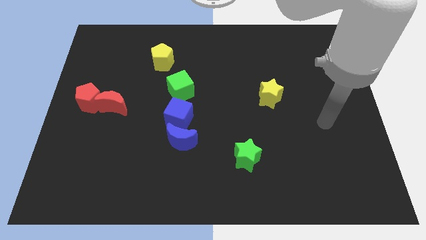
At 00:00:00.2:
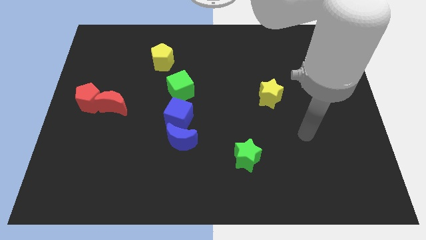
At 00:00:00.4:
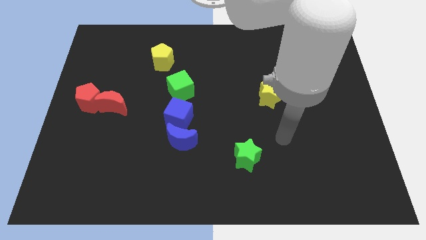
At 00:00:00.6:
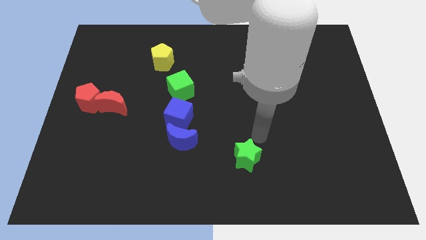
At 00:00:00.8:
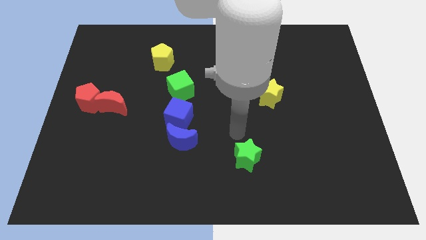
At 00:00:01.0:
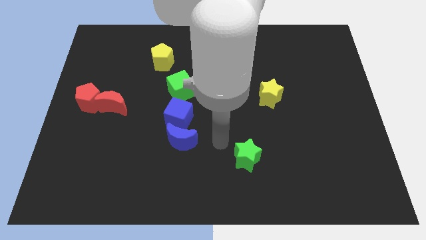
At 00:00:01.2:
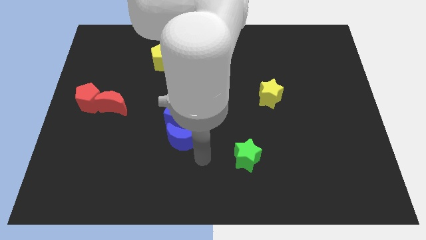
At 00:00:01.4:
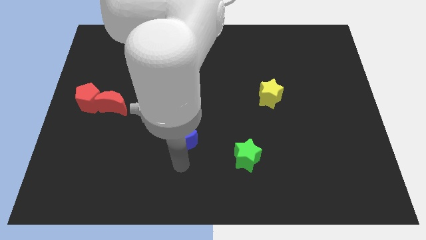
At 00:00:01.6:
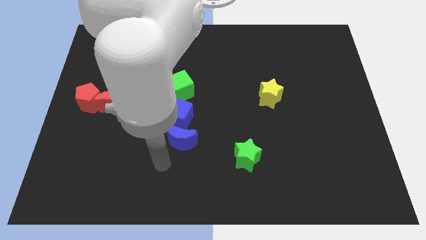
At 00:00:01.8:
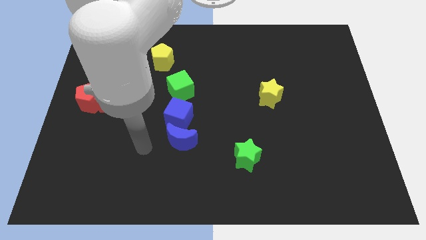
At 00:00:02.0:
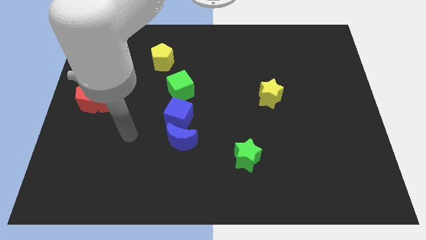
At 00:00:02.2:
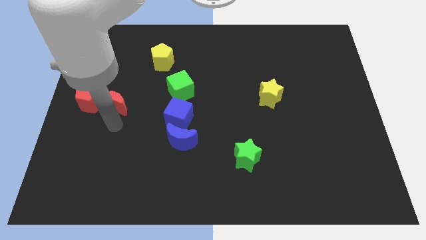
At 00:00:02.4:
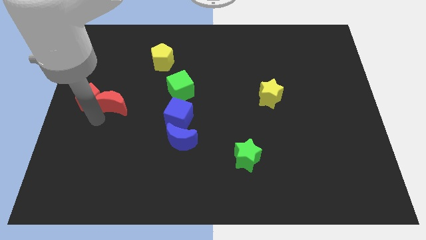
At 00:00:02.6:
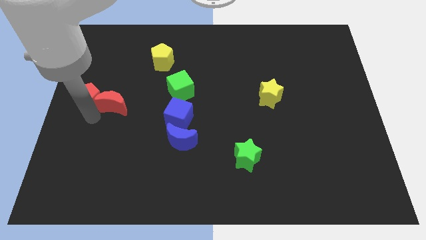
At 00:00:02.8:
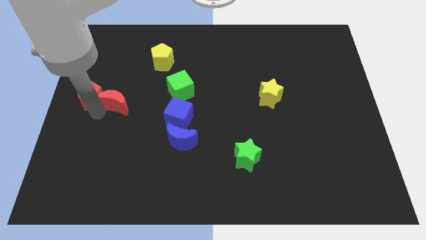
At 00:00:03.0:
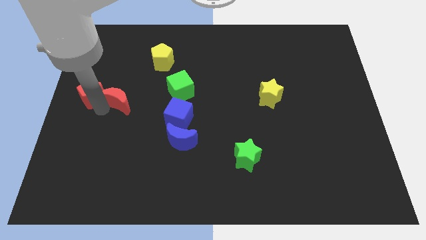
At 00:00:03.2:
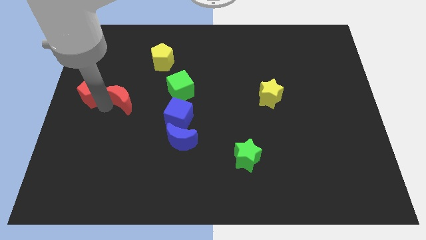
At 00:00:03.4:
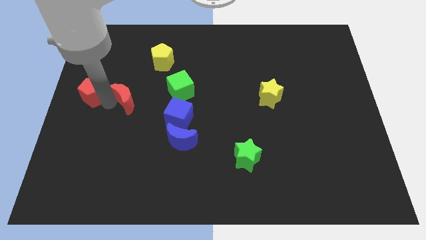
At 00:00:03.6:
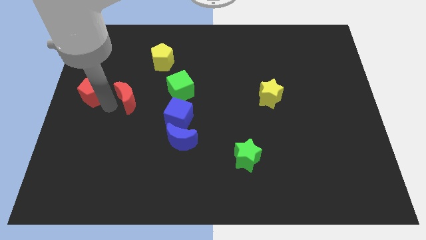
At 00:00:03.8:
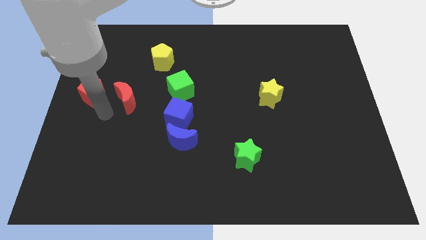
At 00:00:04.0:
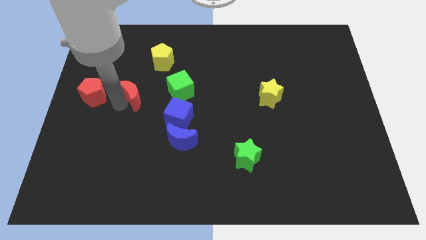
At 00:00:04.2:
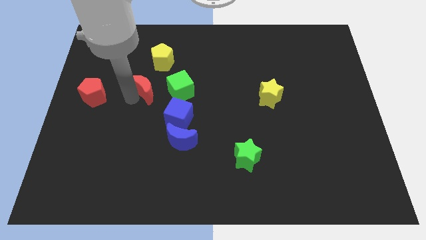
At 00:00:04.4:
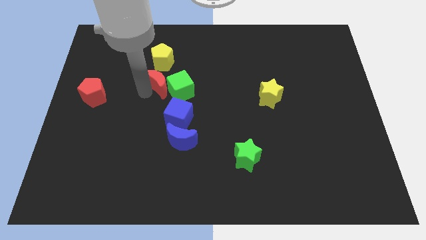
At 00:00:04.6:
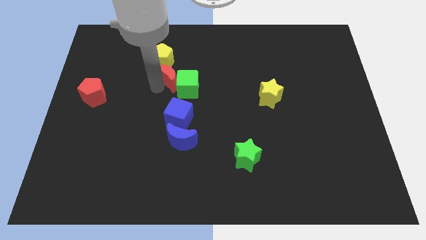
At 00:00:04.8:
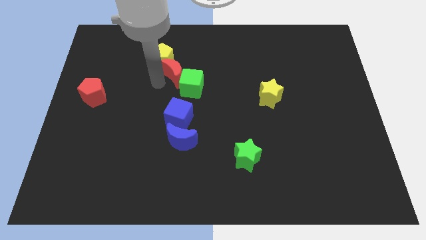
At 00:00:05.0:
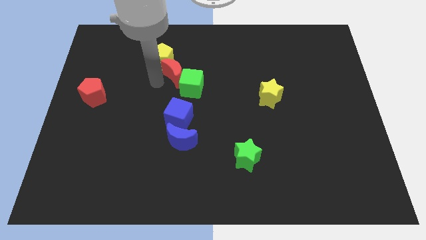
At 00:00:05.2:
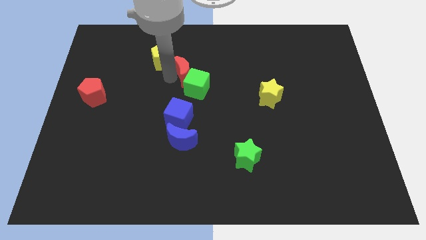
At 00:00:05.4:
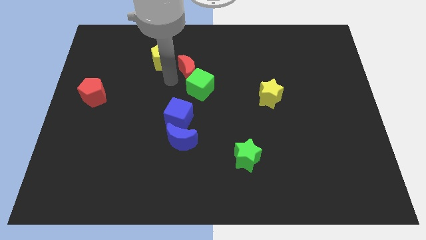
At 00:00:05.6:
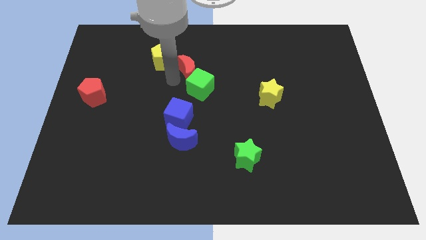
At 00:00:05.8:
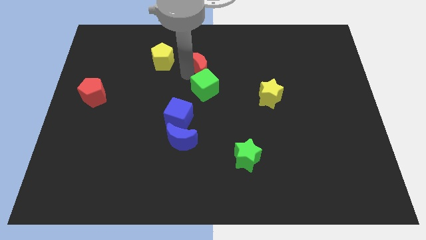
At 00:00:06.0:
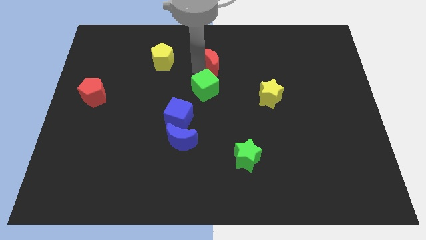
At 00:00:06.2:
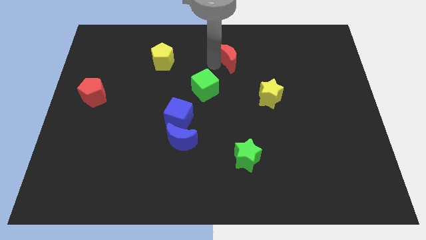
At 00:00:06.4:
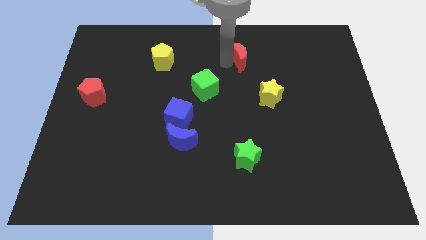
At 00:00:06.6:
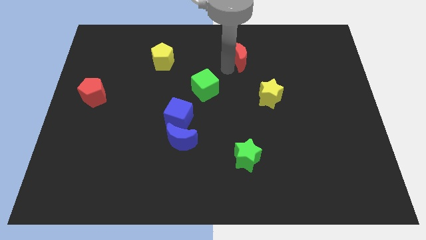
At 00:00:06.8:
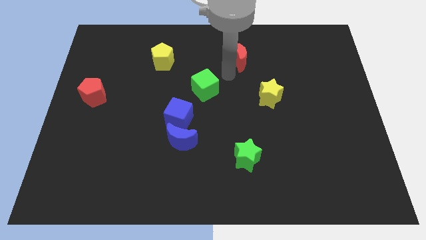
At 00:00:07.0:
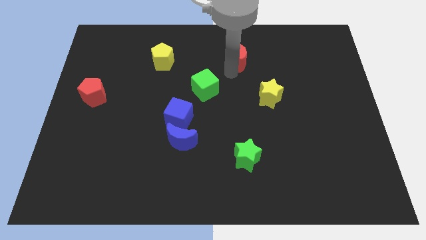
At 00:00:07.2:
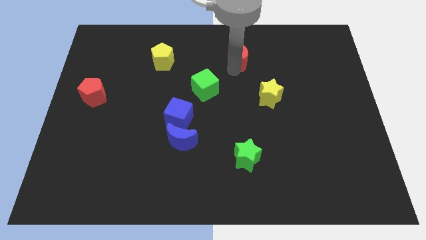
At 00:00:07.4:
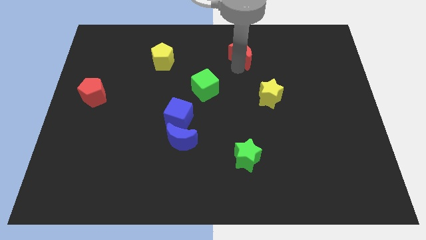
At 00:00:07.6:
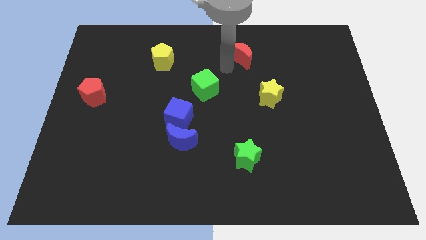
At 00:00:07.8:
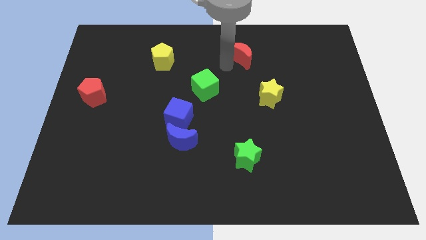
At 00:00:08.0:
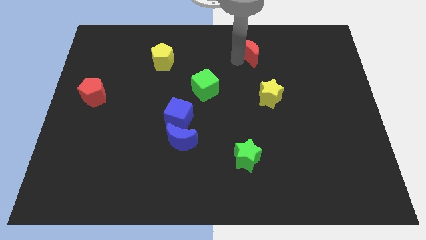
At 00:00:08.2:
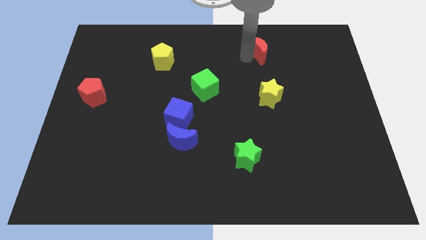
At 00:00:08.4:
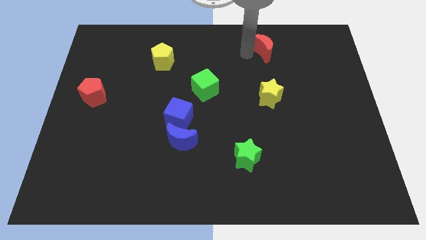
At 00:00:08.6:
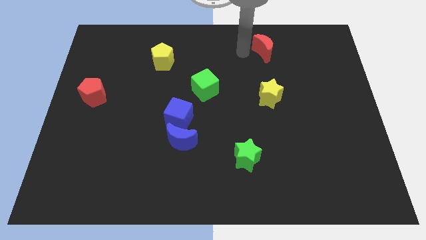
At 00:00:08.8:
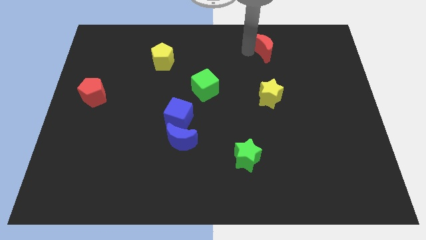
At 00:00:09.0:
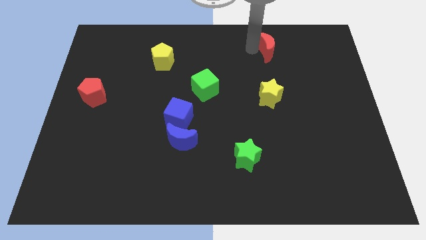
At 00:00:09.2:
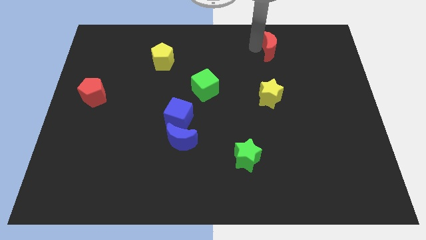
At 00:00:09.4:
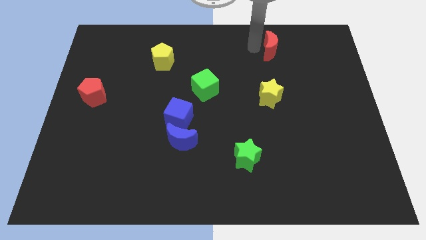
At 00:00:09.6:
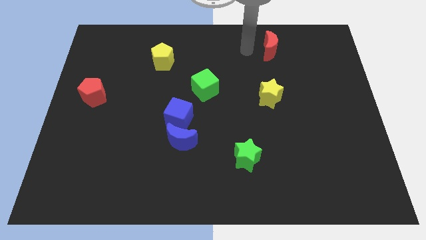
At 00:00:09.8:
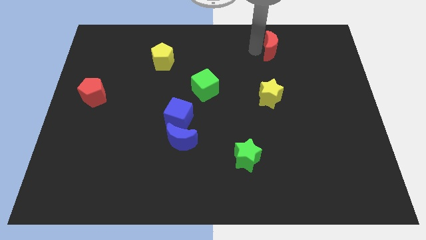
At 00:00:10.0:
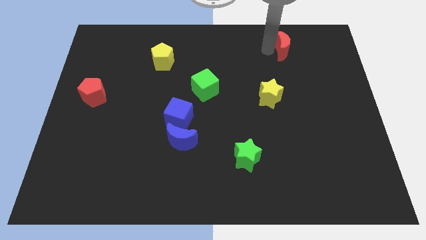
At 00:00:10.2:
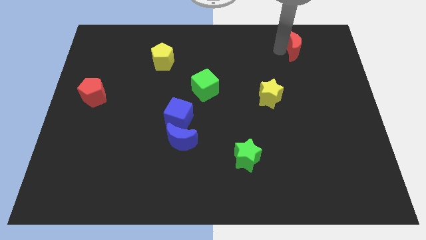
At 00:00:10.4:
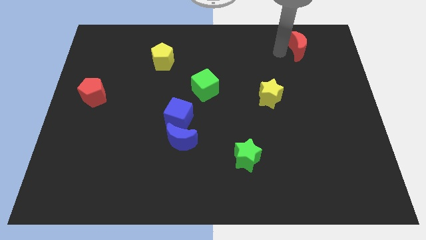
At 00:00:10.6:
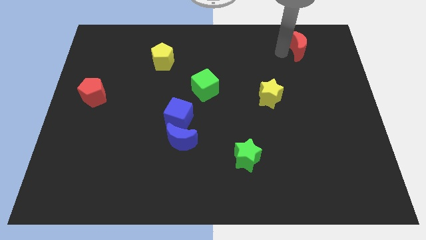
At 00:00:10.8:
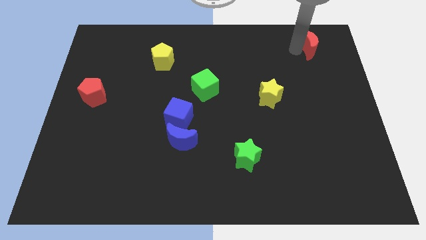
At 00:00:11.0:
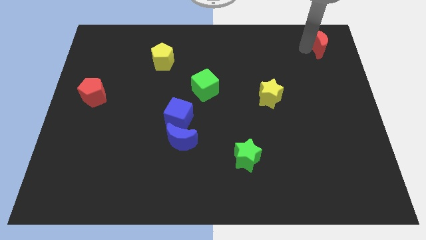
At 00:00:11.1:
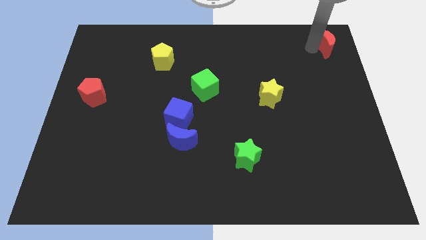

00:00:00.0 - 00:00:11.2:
move the red moon to the top right of the board

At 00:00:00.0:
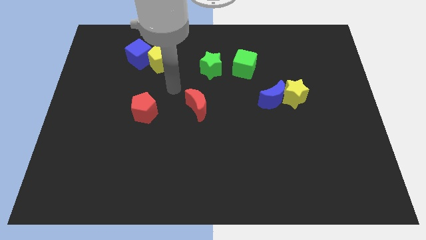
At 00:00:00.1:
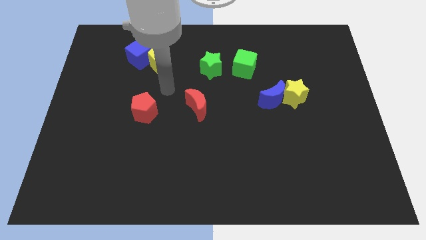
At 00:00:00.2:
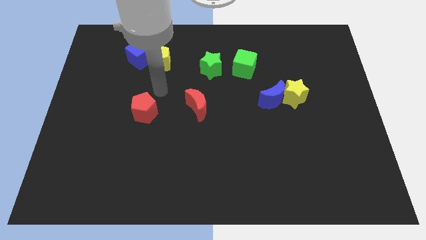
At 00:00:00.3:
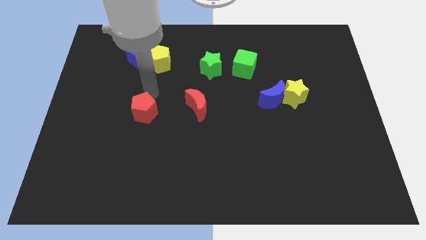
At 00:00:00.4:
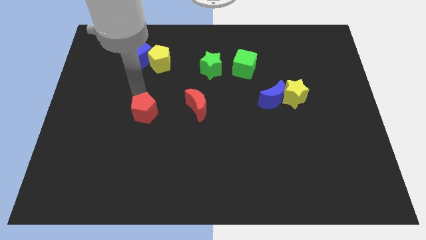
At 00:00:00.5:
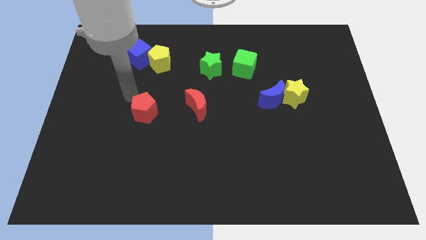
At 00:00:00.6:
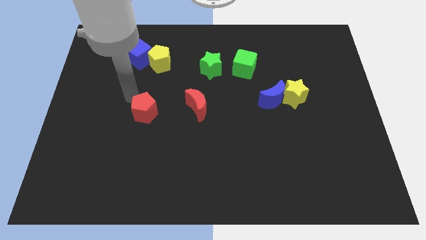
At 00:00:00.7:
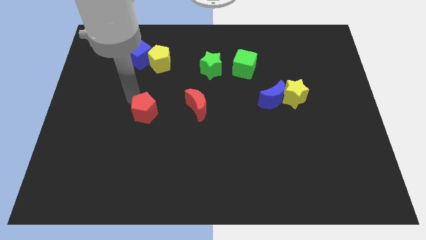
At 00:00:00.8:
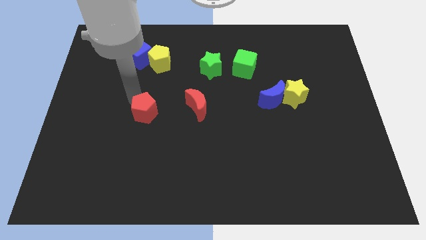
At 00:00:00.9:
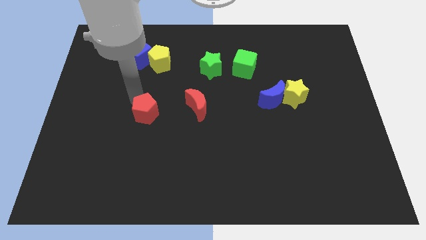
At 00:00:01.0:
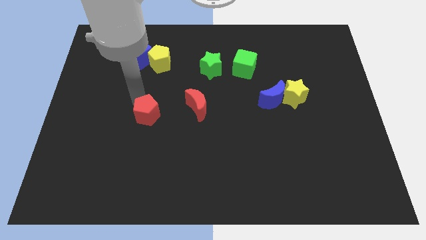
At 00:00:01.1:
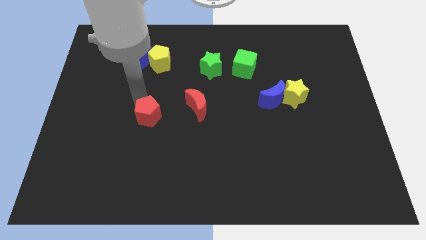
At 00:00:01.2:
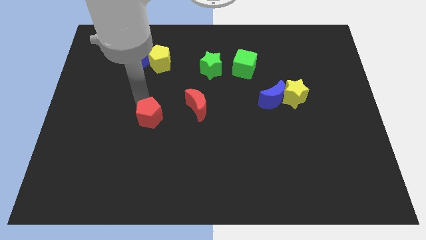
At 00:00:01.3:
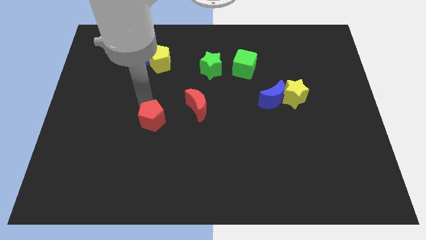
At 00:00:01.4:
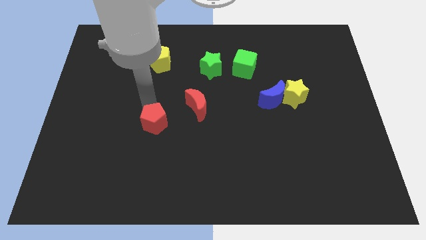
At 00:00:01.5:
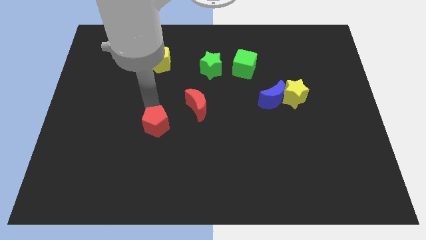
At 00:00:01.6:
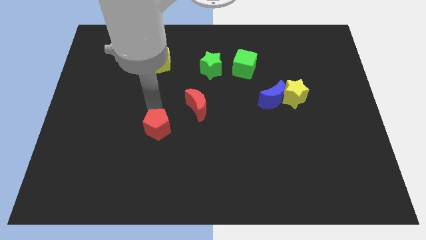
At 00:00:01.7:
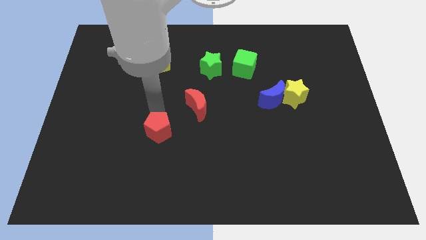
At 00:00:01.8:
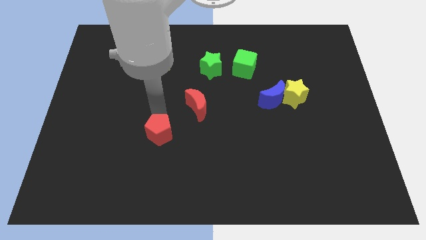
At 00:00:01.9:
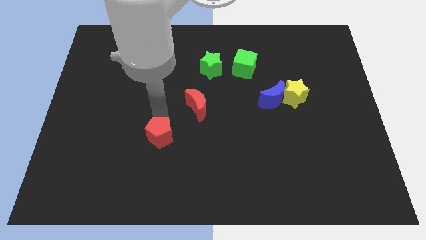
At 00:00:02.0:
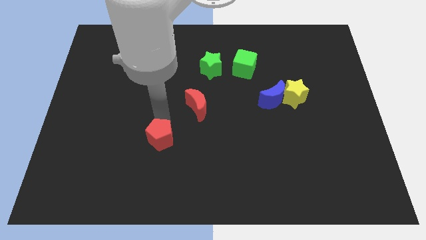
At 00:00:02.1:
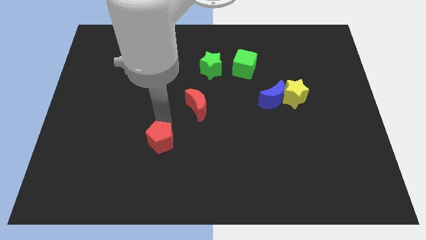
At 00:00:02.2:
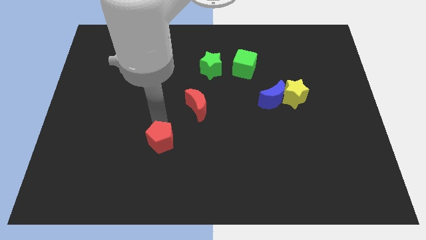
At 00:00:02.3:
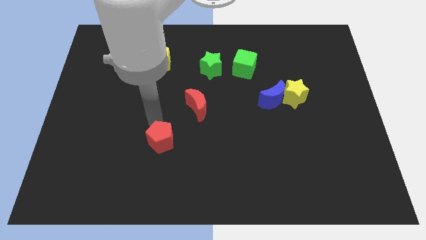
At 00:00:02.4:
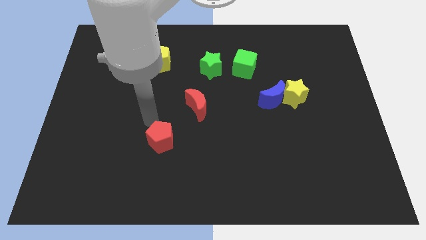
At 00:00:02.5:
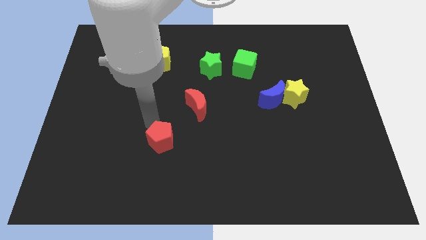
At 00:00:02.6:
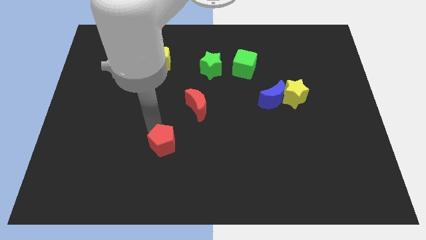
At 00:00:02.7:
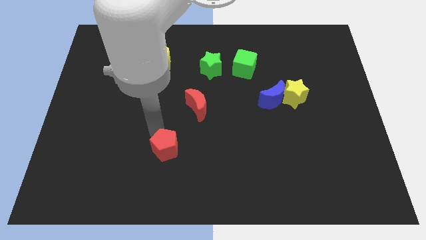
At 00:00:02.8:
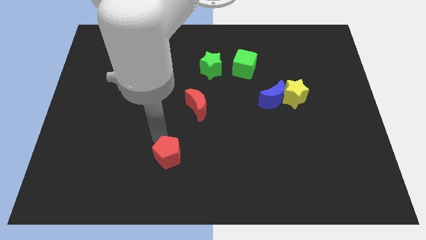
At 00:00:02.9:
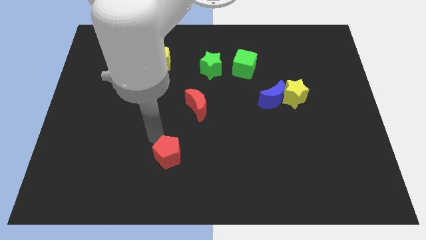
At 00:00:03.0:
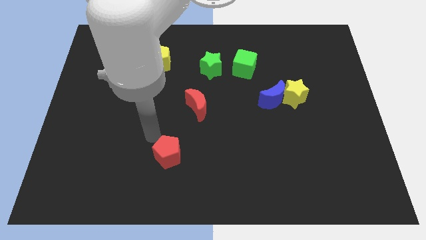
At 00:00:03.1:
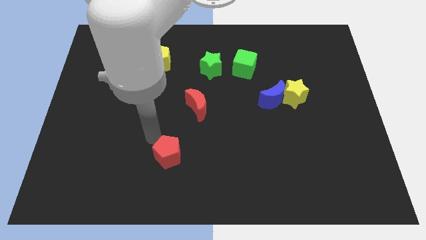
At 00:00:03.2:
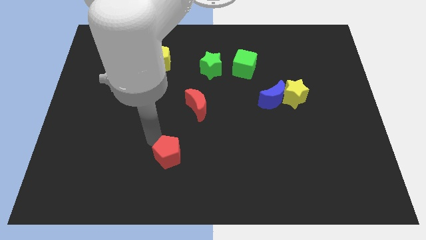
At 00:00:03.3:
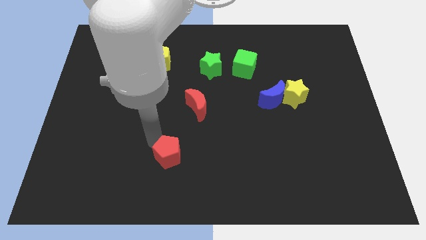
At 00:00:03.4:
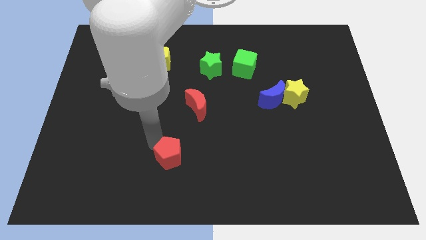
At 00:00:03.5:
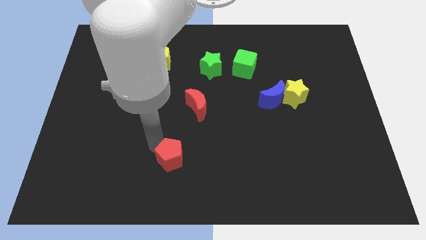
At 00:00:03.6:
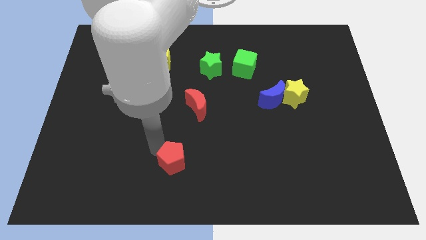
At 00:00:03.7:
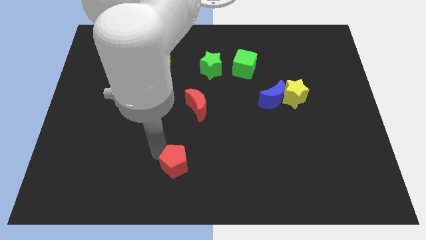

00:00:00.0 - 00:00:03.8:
push the red pentagon to the bottom
